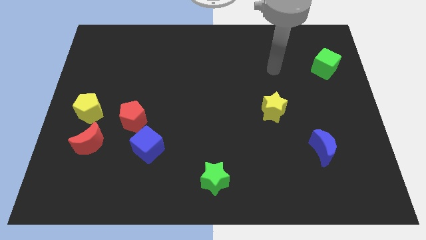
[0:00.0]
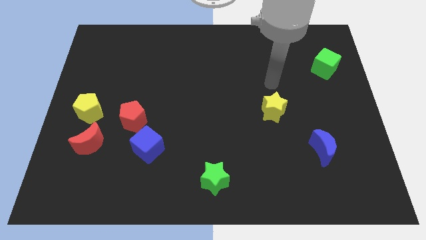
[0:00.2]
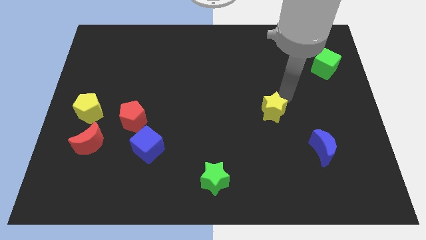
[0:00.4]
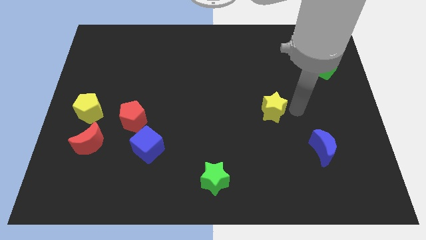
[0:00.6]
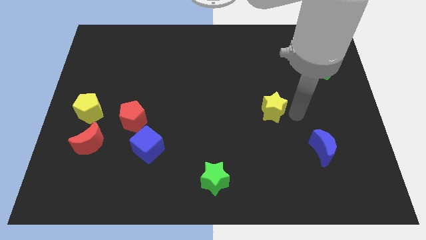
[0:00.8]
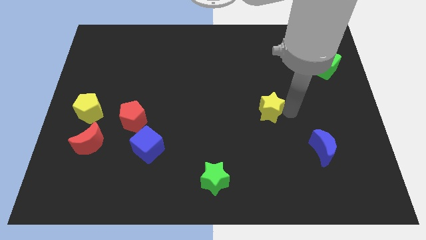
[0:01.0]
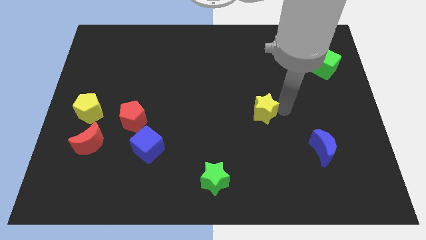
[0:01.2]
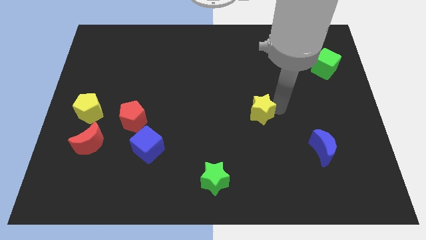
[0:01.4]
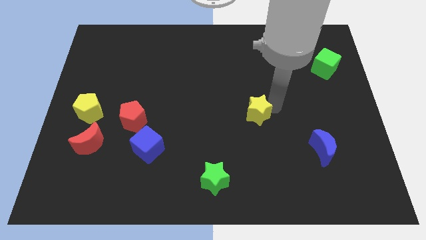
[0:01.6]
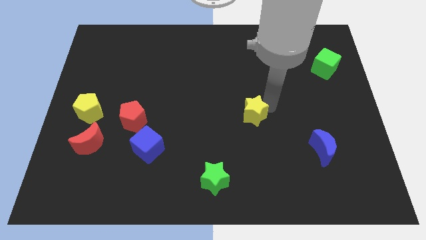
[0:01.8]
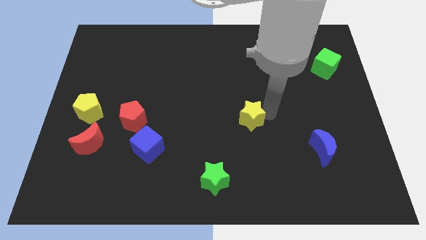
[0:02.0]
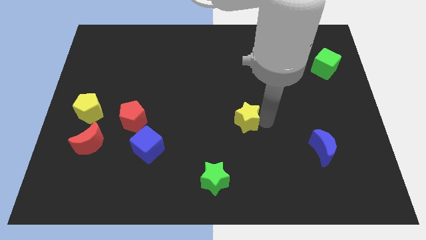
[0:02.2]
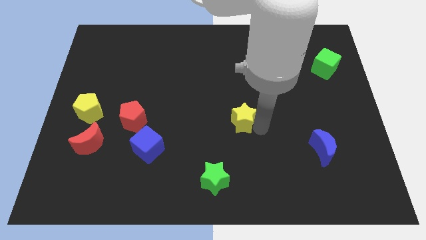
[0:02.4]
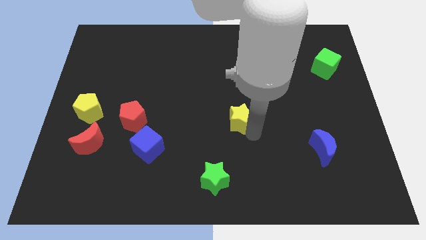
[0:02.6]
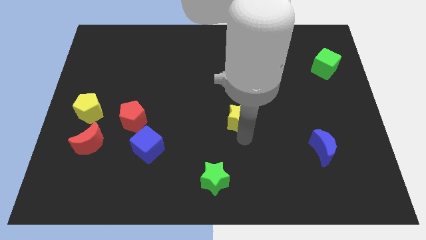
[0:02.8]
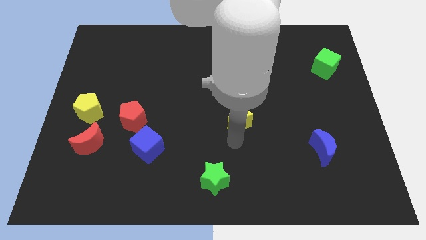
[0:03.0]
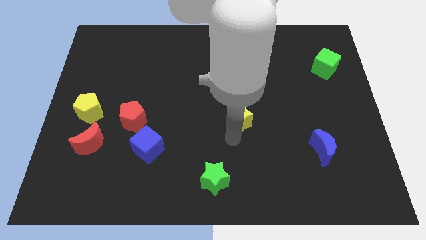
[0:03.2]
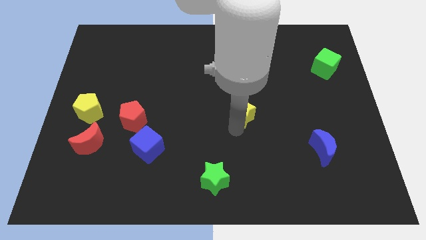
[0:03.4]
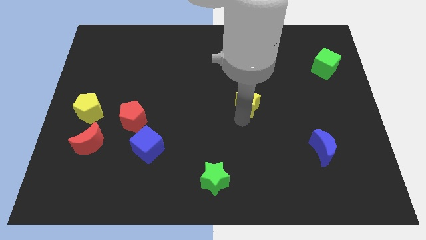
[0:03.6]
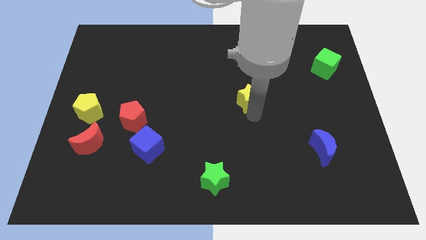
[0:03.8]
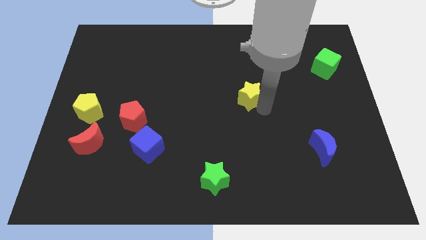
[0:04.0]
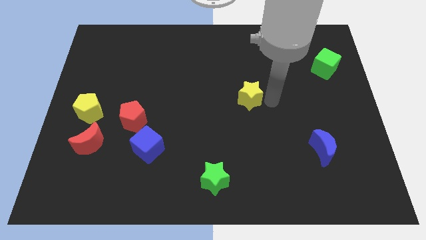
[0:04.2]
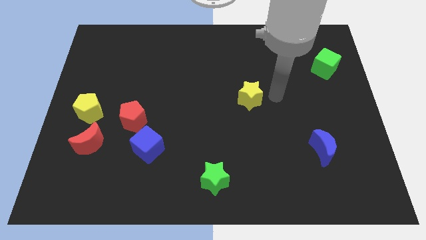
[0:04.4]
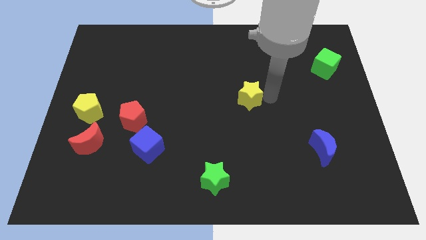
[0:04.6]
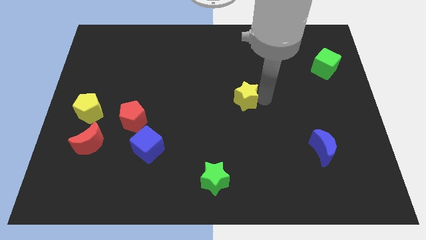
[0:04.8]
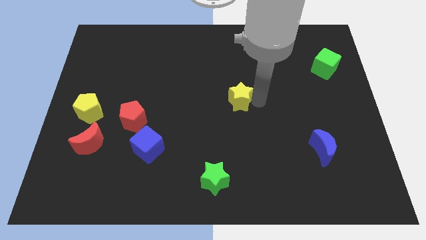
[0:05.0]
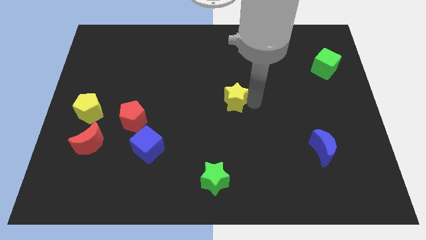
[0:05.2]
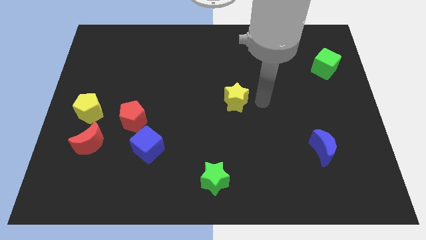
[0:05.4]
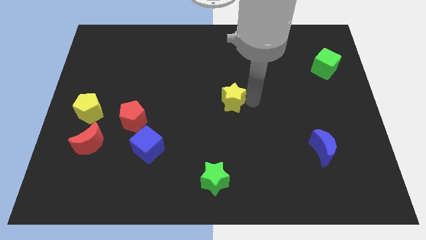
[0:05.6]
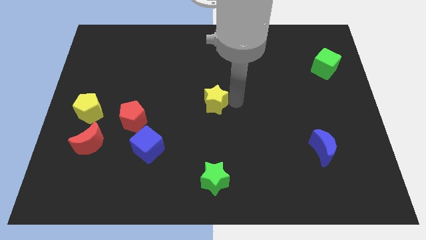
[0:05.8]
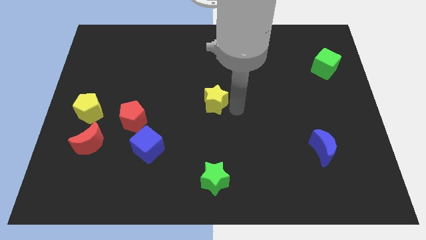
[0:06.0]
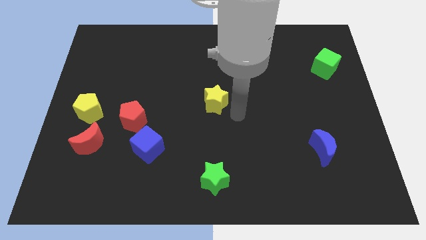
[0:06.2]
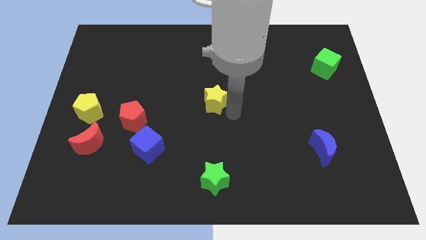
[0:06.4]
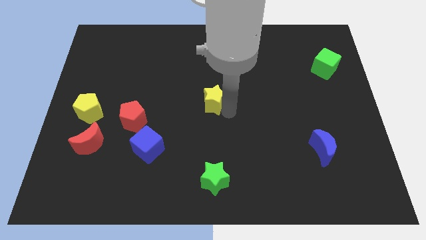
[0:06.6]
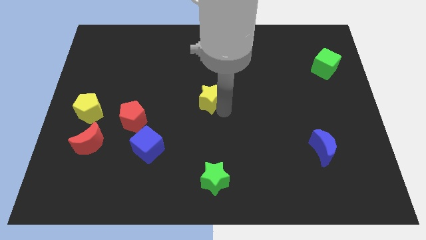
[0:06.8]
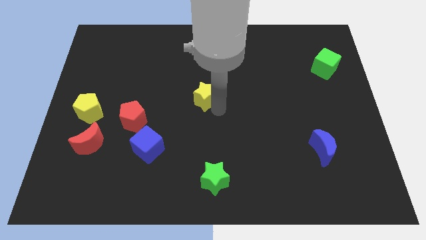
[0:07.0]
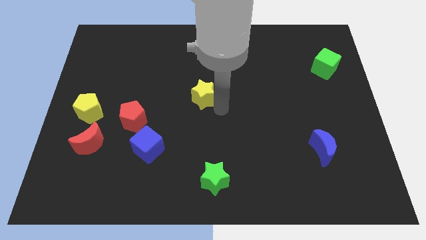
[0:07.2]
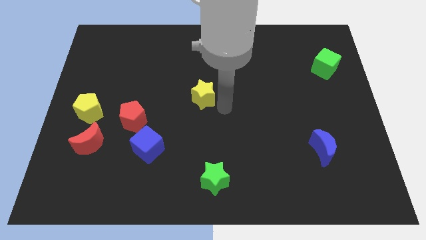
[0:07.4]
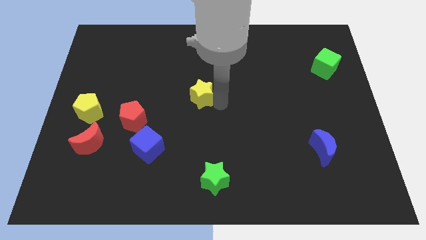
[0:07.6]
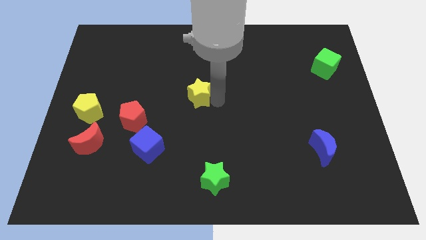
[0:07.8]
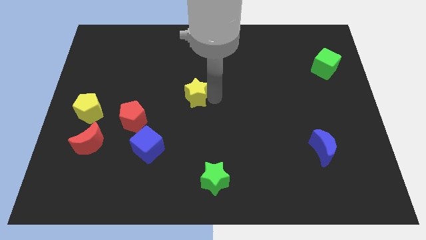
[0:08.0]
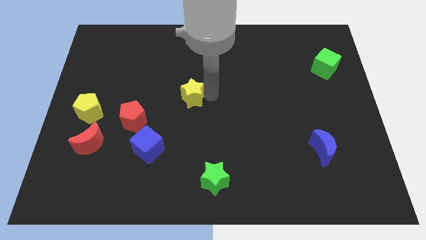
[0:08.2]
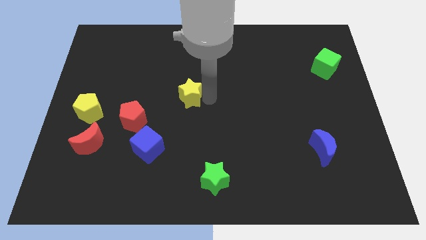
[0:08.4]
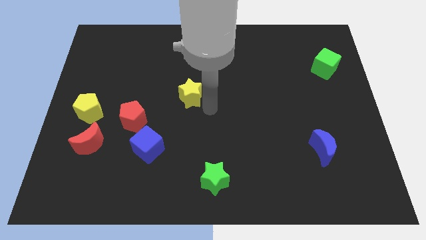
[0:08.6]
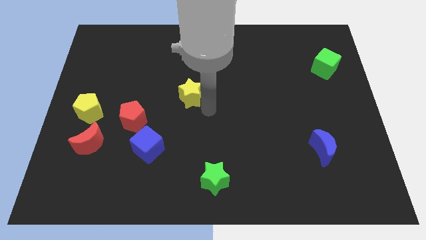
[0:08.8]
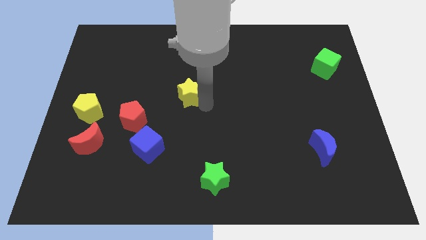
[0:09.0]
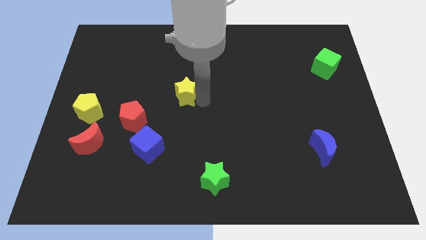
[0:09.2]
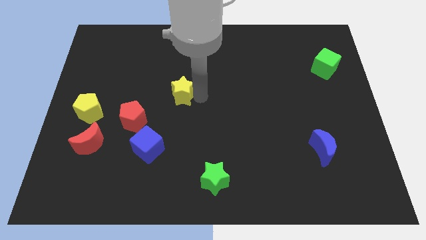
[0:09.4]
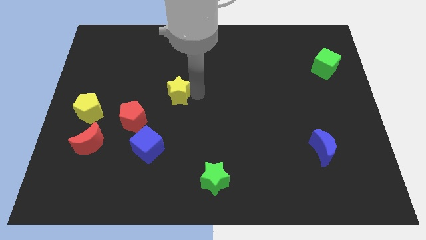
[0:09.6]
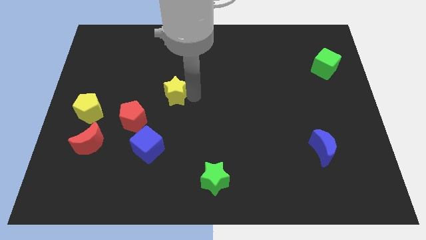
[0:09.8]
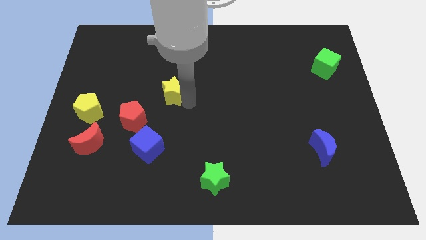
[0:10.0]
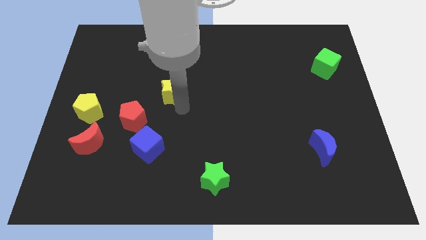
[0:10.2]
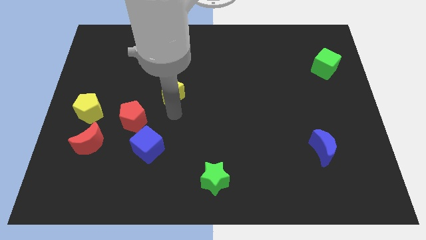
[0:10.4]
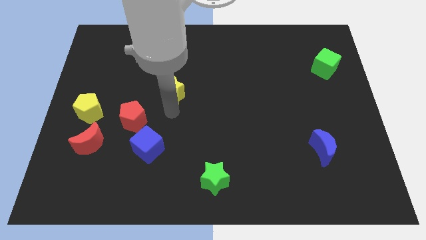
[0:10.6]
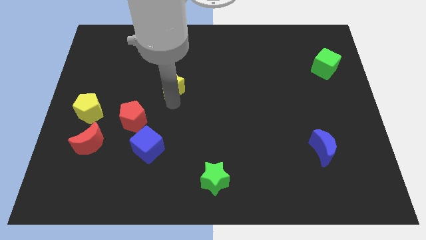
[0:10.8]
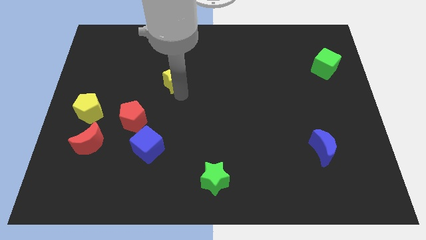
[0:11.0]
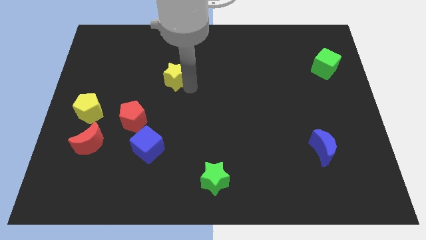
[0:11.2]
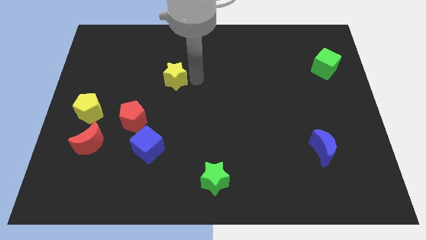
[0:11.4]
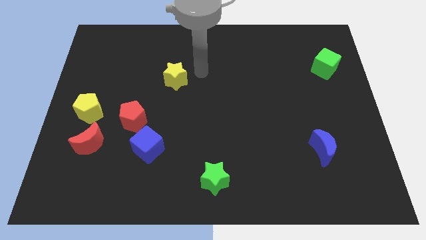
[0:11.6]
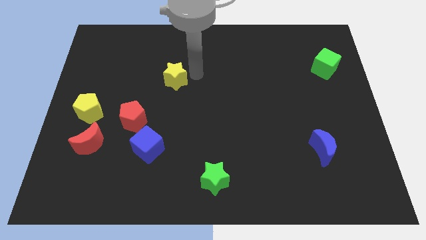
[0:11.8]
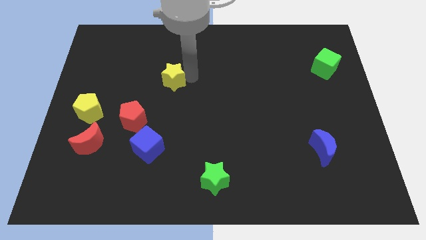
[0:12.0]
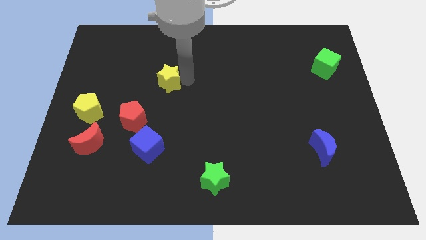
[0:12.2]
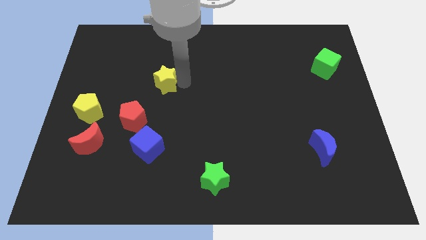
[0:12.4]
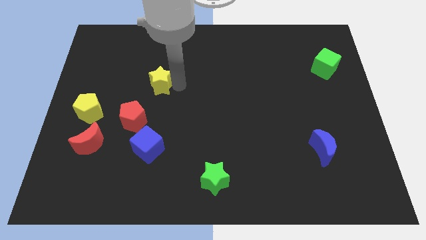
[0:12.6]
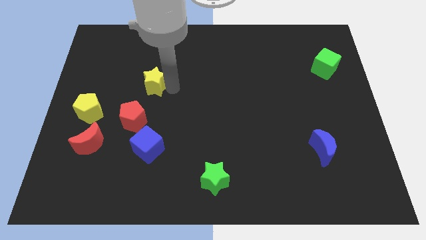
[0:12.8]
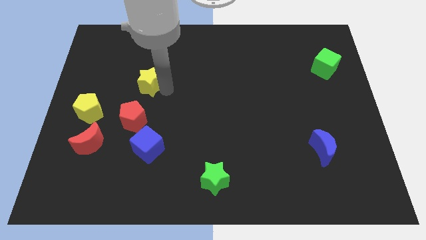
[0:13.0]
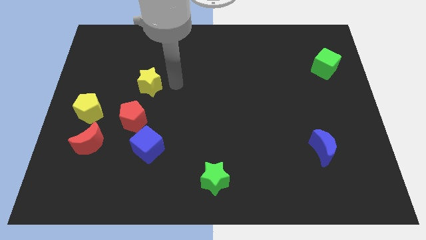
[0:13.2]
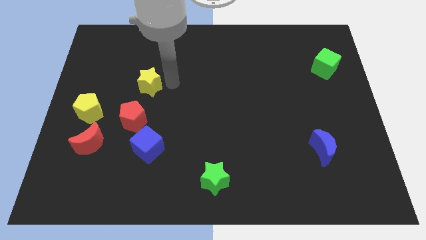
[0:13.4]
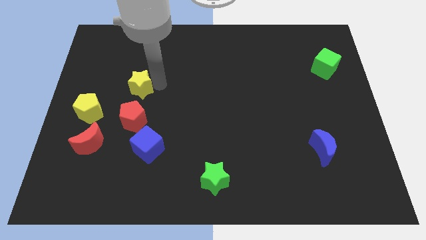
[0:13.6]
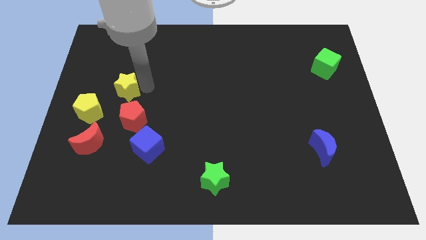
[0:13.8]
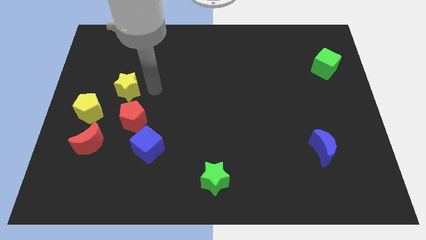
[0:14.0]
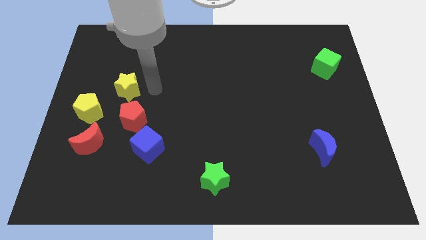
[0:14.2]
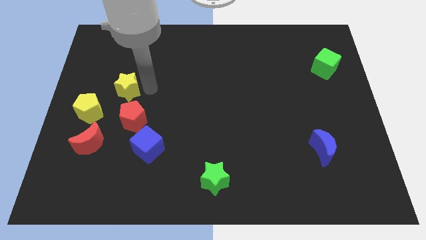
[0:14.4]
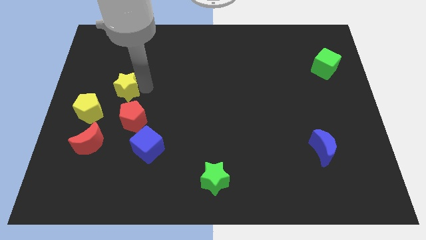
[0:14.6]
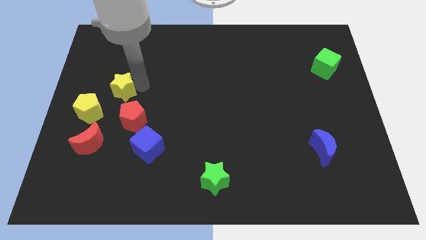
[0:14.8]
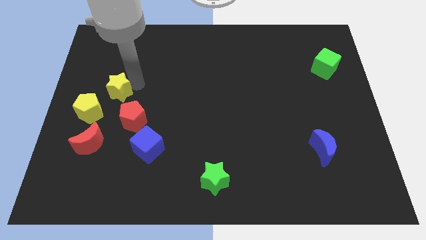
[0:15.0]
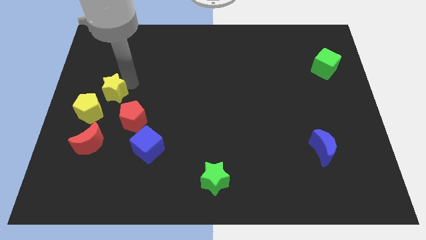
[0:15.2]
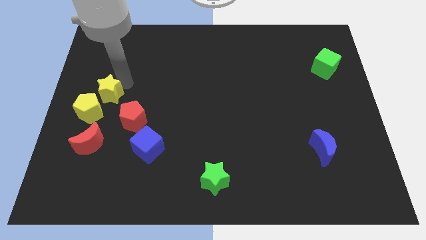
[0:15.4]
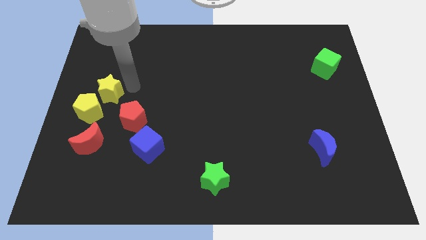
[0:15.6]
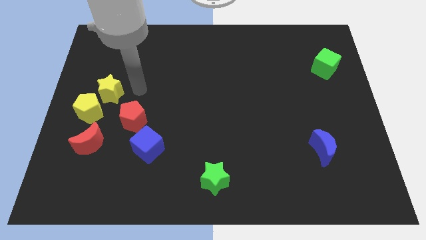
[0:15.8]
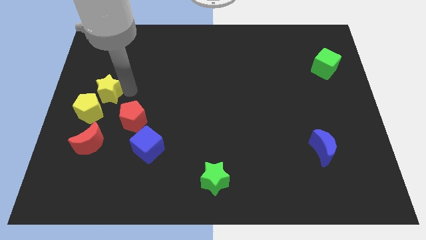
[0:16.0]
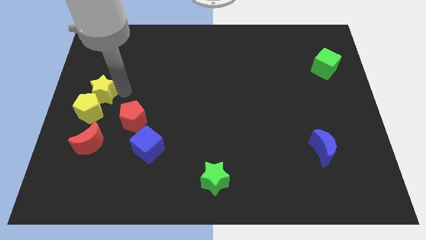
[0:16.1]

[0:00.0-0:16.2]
push the yellow star to the left side
